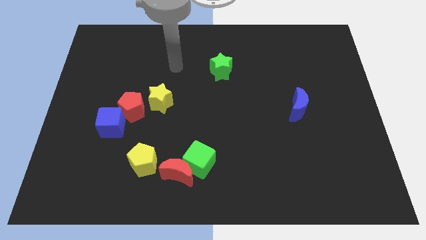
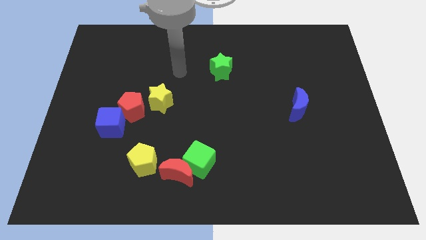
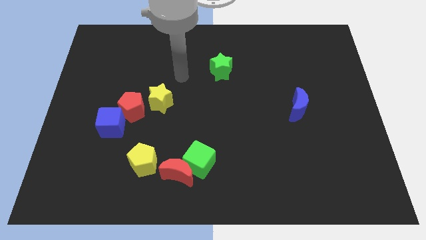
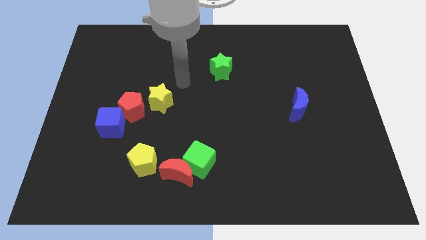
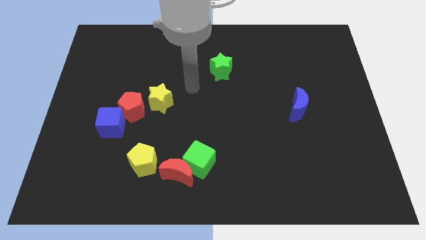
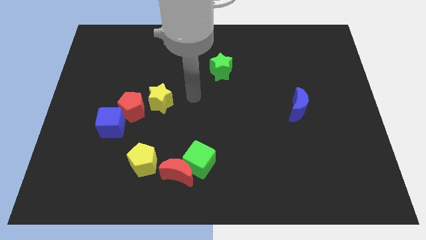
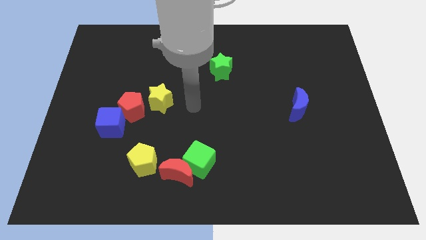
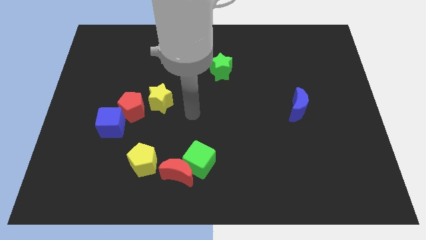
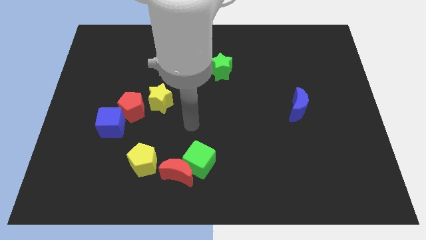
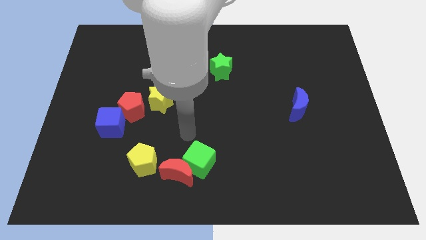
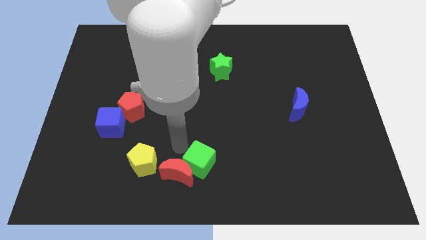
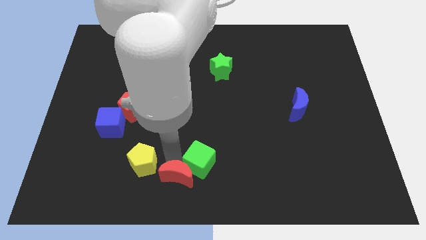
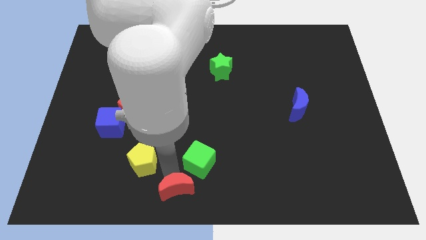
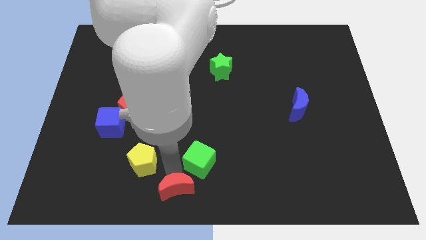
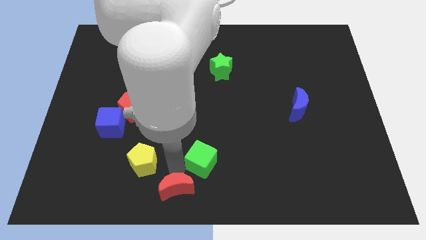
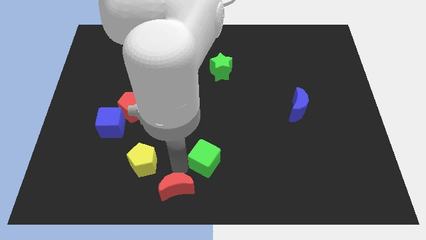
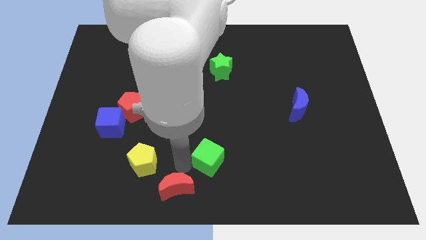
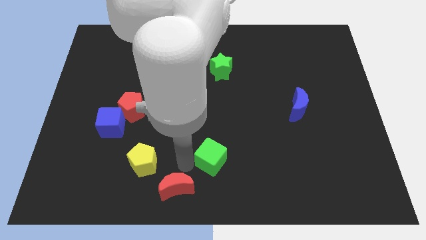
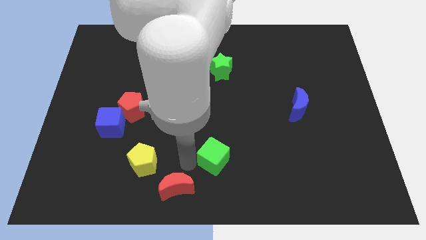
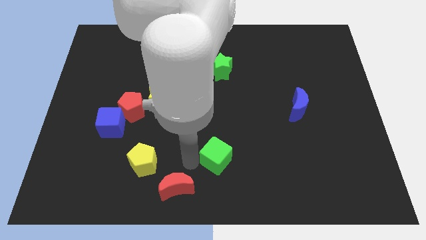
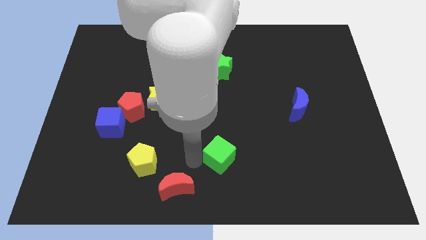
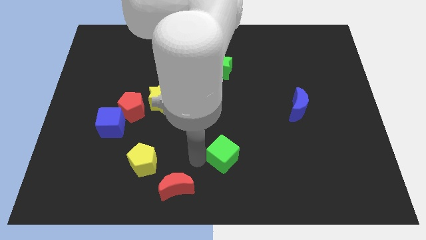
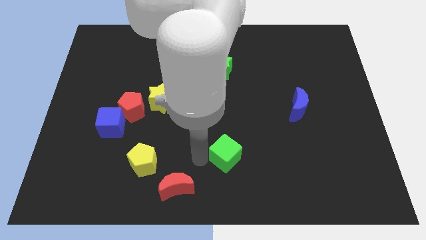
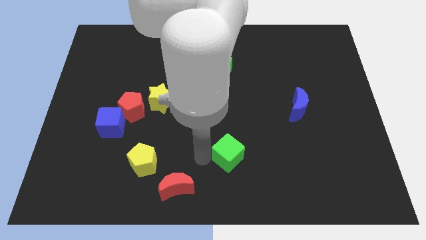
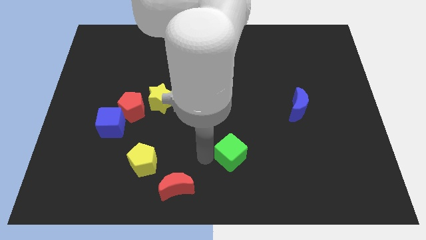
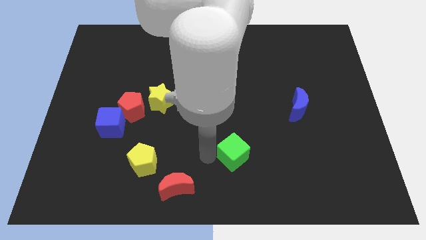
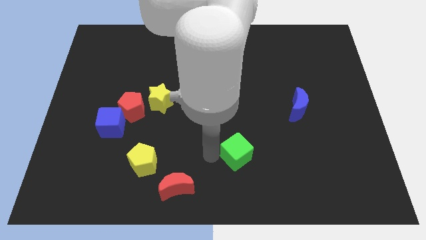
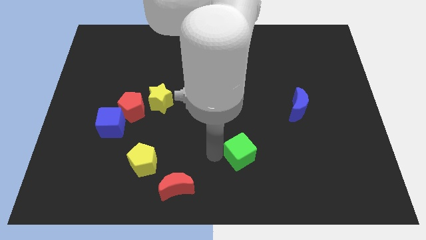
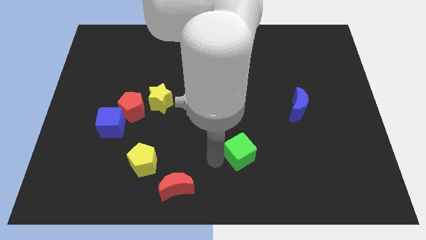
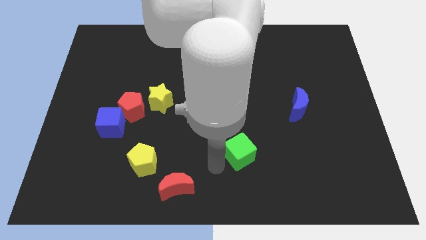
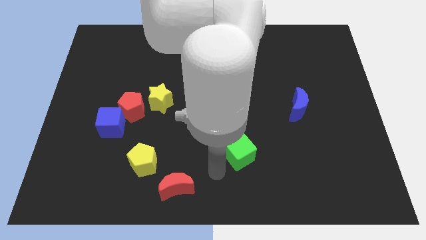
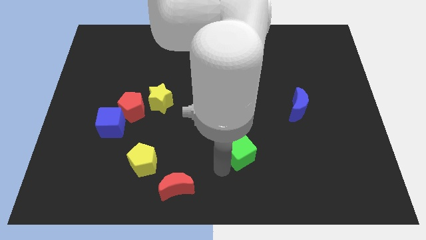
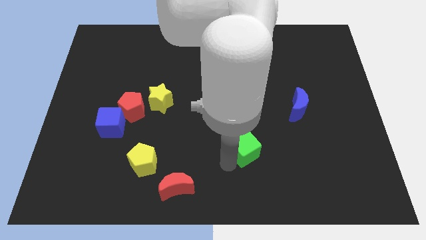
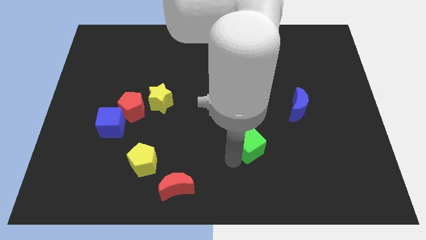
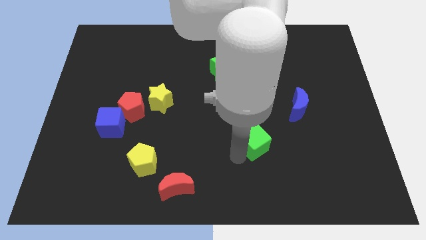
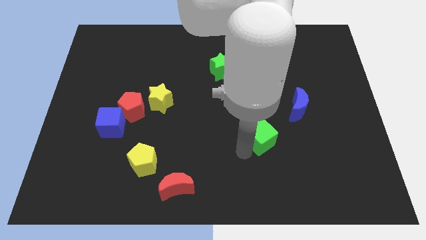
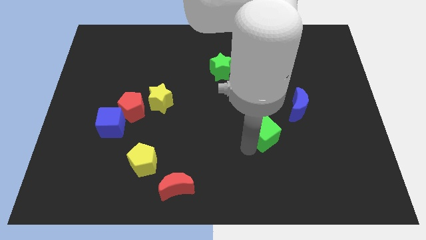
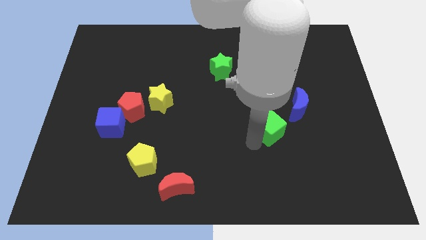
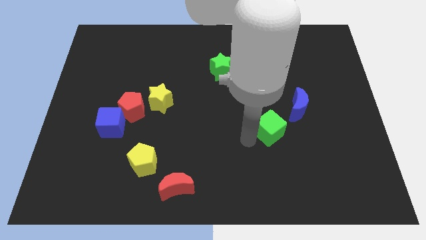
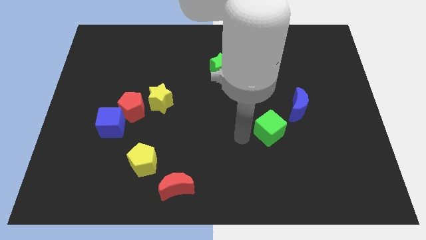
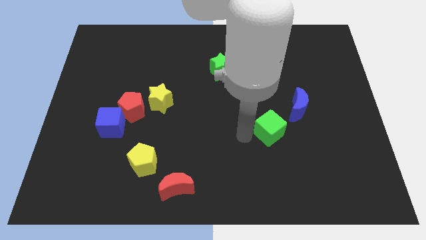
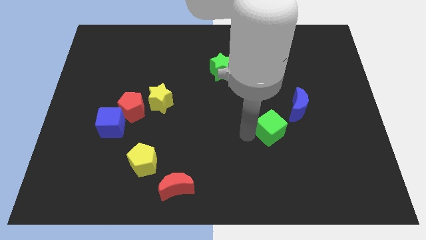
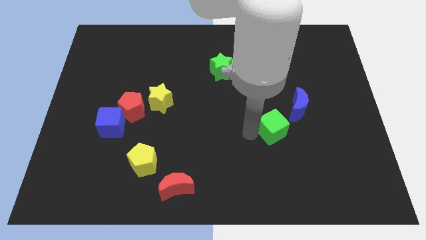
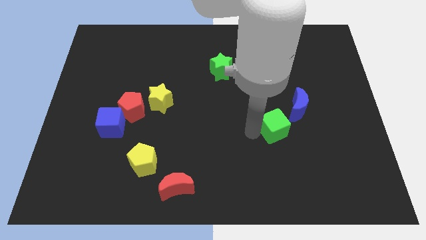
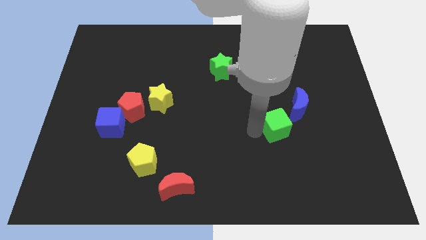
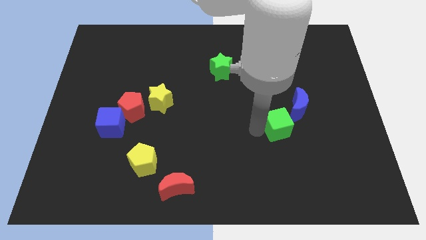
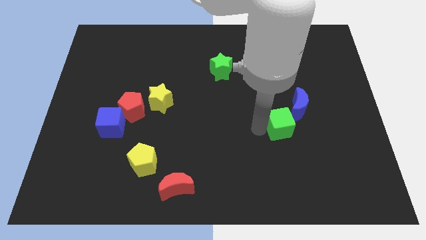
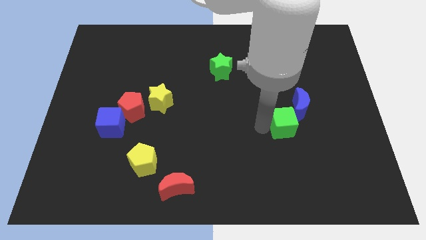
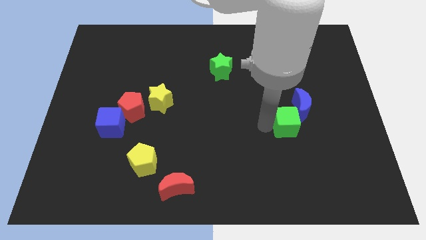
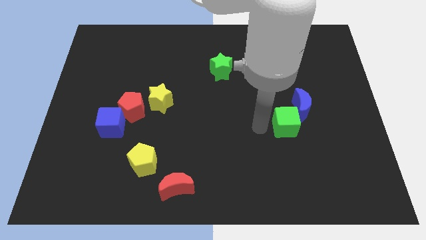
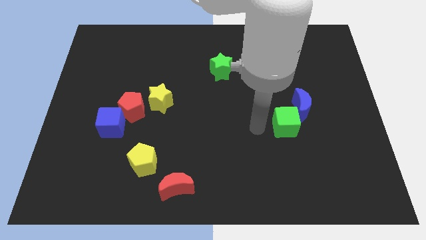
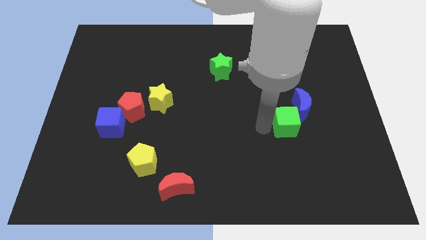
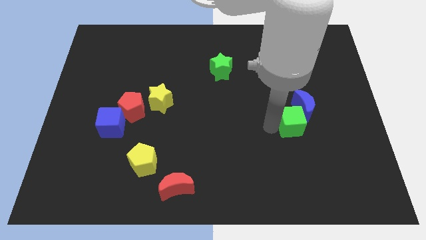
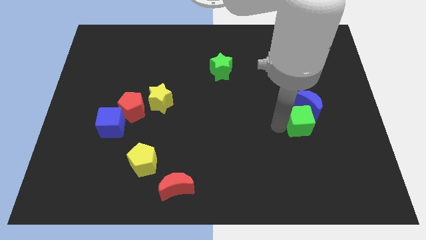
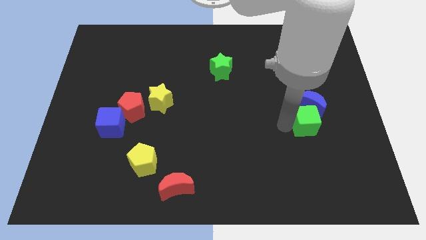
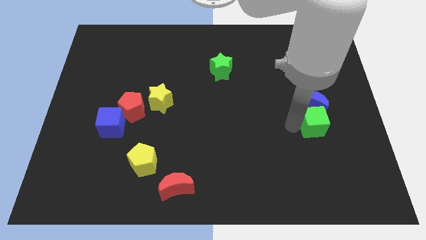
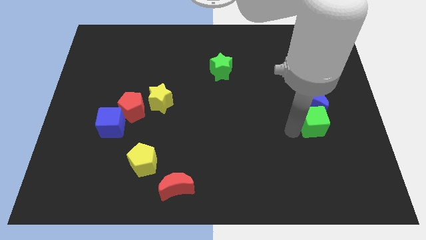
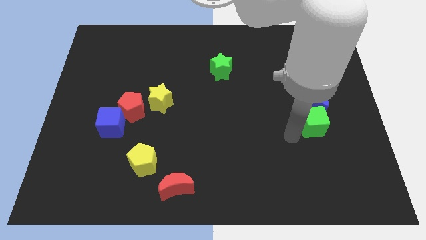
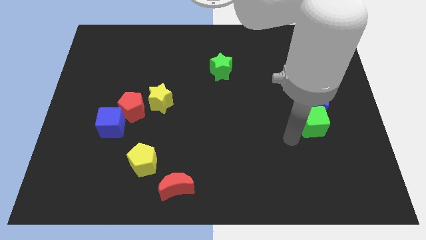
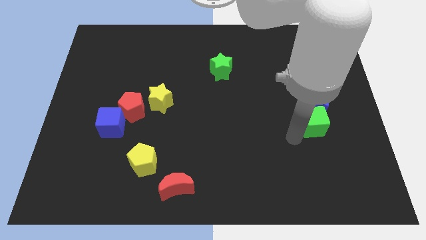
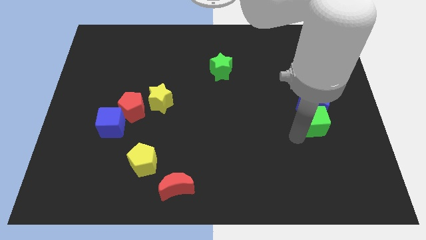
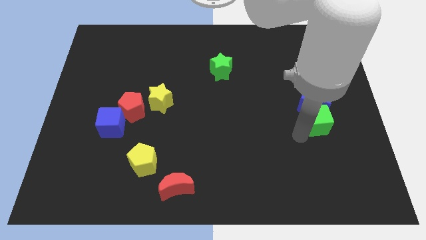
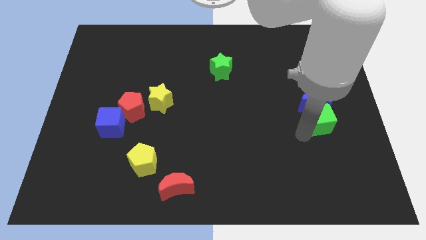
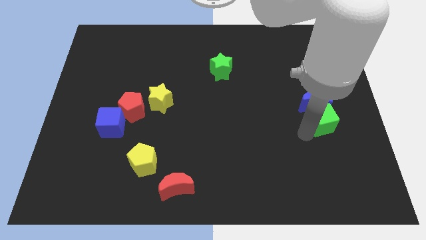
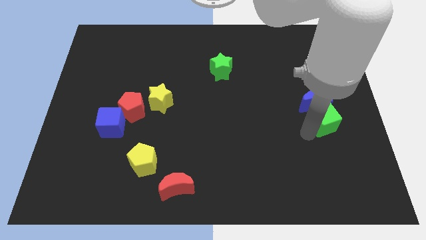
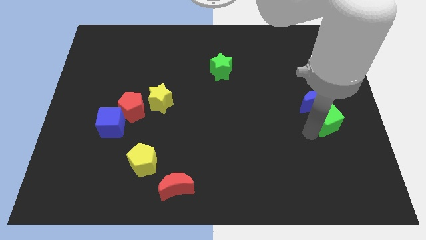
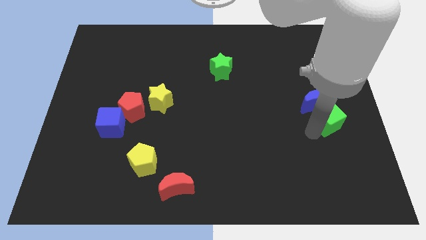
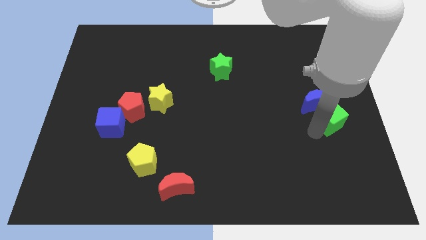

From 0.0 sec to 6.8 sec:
move the green cube to the right side of the board
